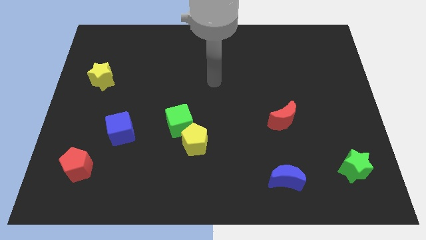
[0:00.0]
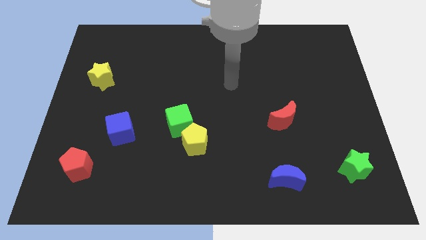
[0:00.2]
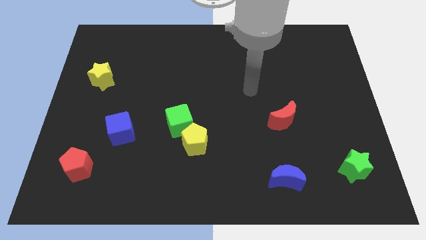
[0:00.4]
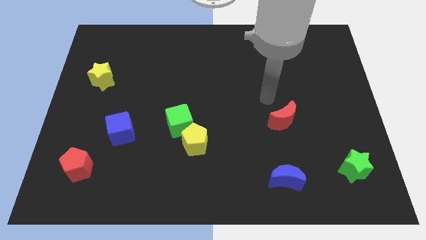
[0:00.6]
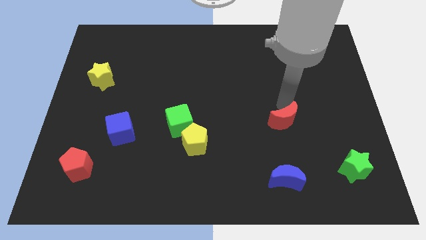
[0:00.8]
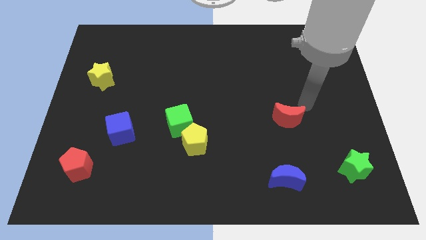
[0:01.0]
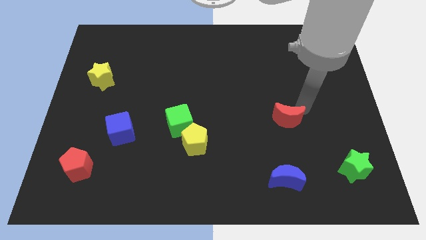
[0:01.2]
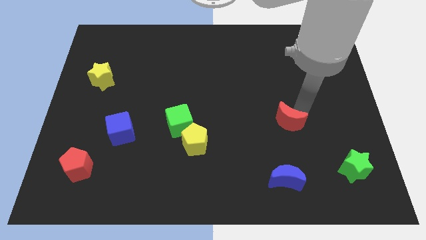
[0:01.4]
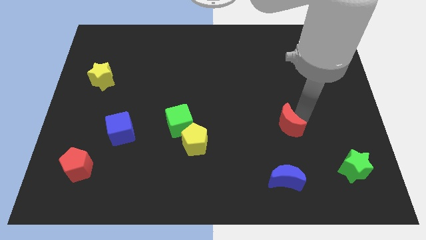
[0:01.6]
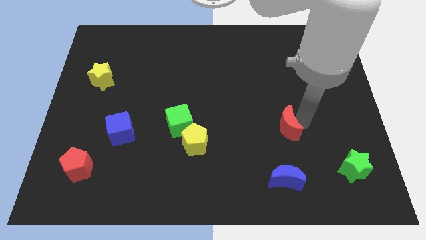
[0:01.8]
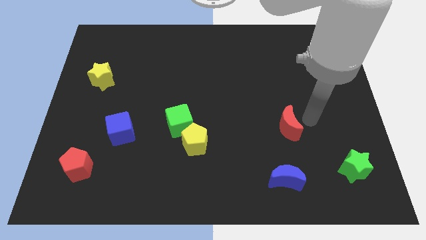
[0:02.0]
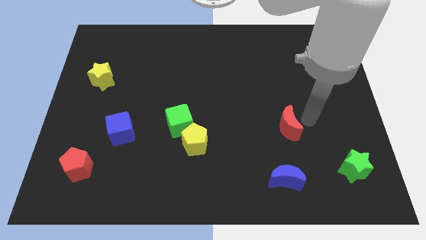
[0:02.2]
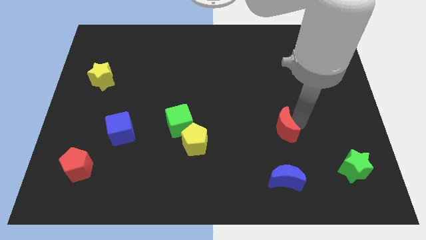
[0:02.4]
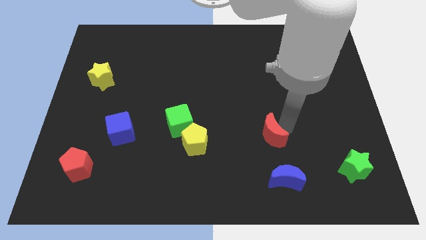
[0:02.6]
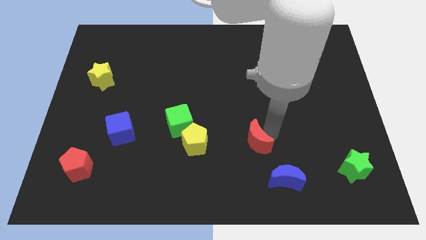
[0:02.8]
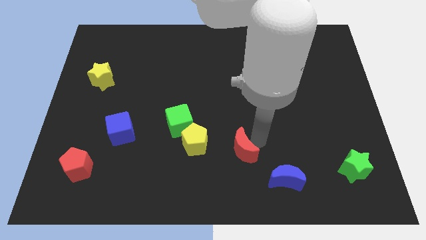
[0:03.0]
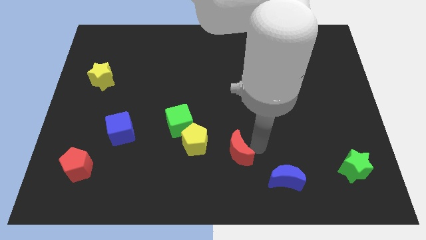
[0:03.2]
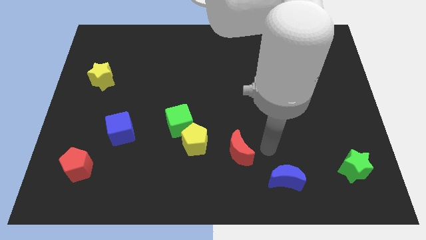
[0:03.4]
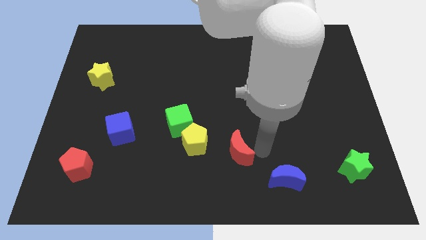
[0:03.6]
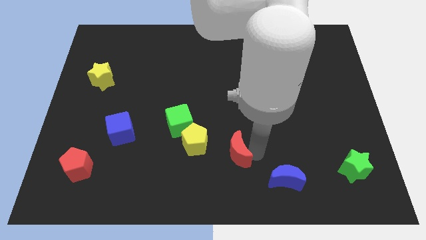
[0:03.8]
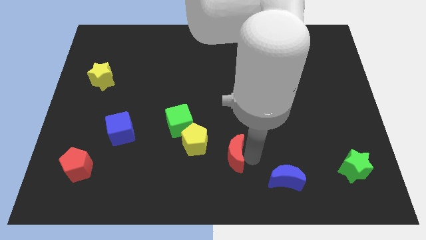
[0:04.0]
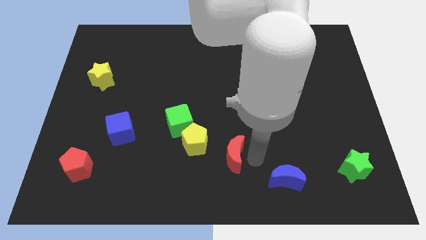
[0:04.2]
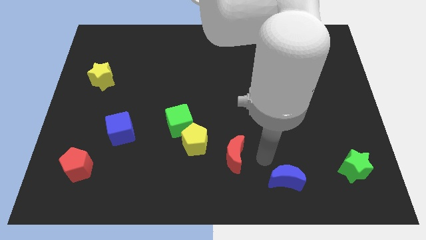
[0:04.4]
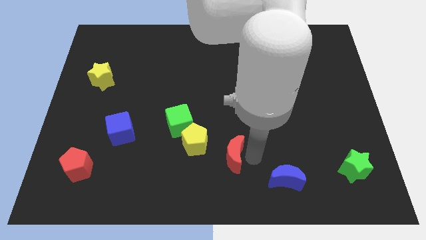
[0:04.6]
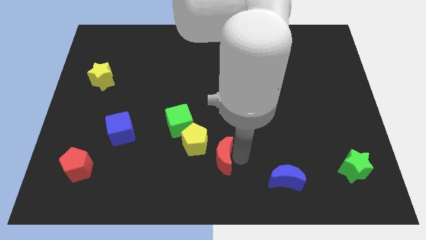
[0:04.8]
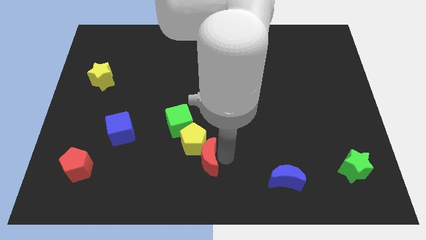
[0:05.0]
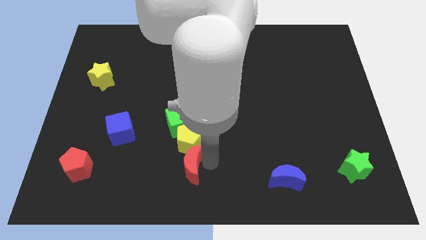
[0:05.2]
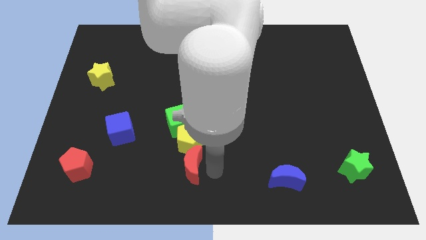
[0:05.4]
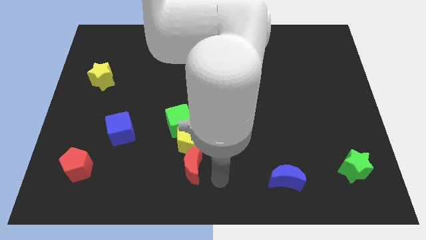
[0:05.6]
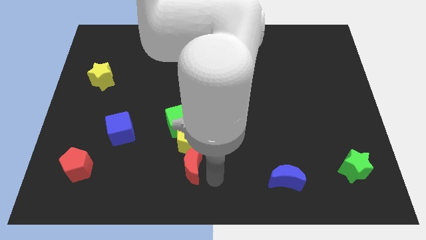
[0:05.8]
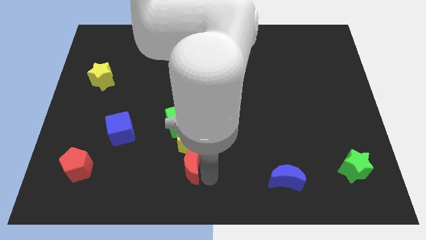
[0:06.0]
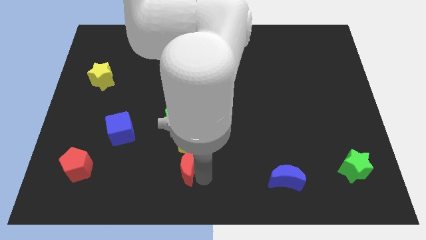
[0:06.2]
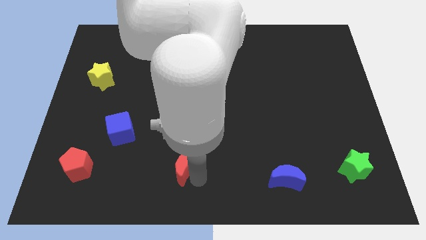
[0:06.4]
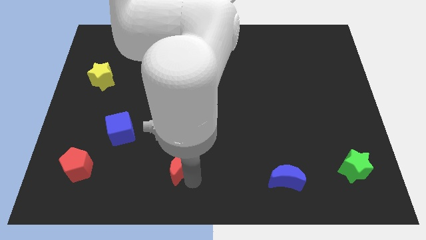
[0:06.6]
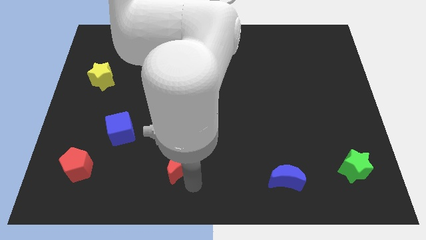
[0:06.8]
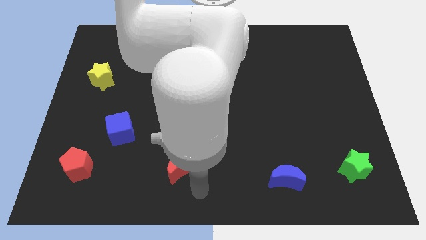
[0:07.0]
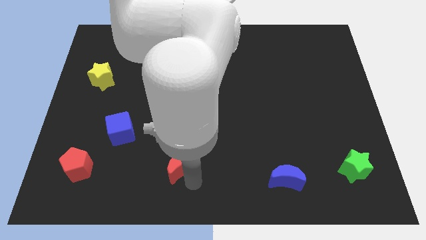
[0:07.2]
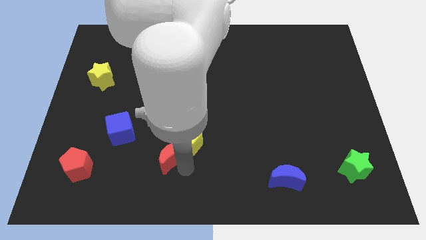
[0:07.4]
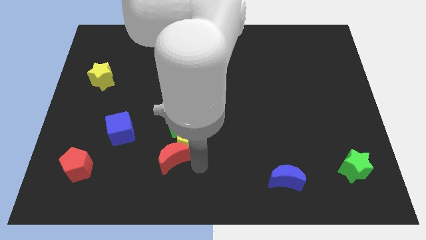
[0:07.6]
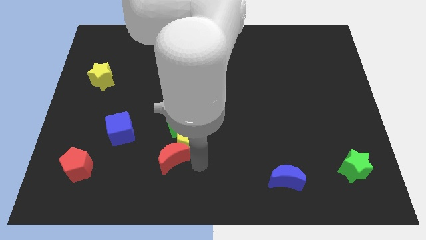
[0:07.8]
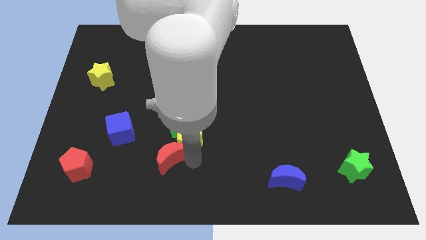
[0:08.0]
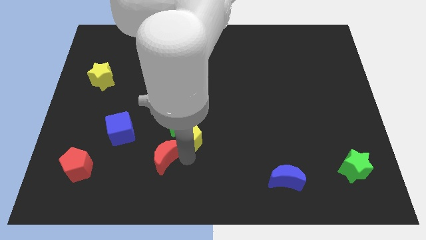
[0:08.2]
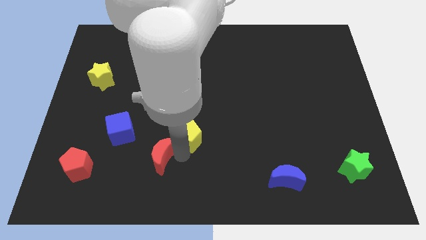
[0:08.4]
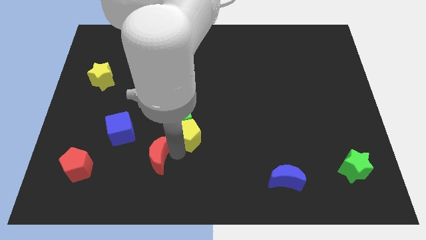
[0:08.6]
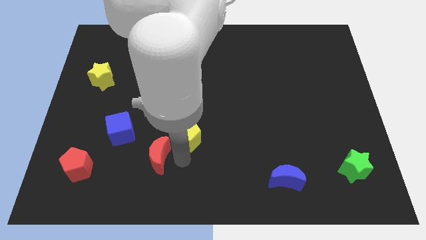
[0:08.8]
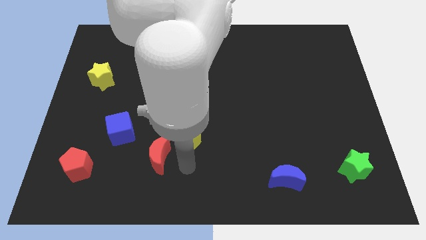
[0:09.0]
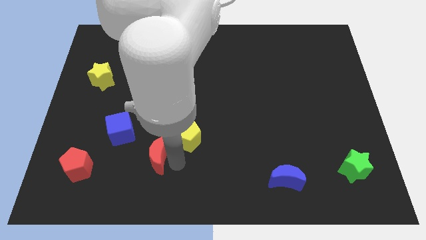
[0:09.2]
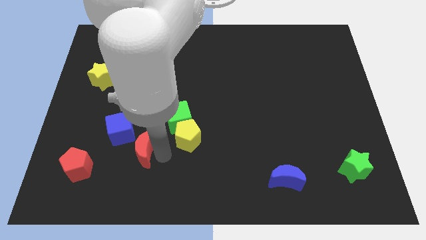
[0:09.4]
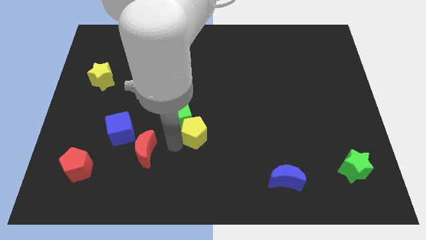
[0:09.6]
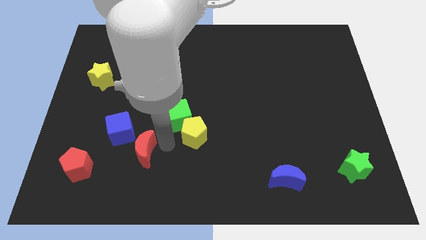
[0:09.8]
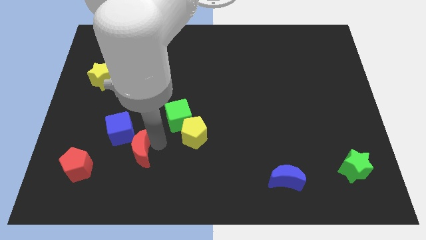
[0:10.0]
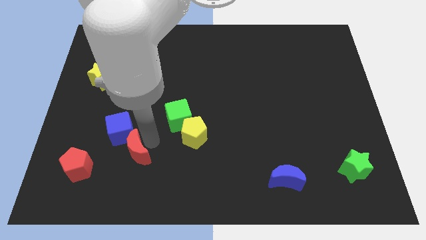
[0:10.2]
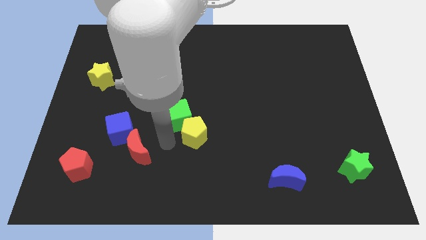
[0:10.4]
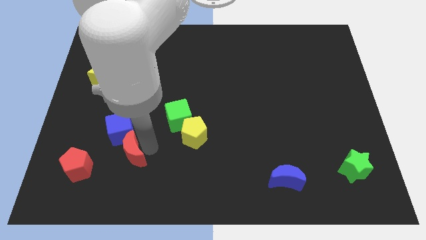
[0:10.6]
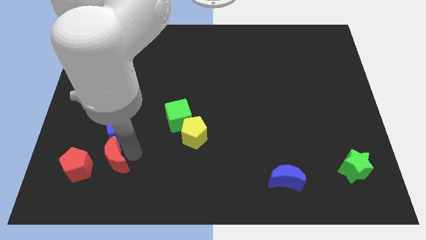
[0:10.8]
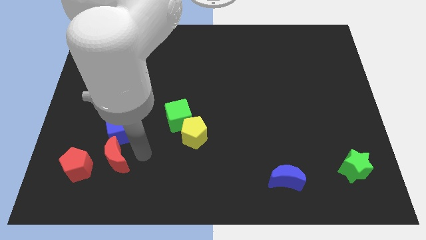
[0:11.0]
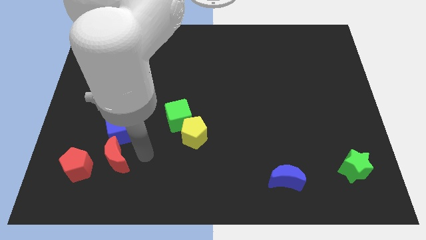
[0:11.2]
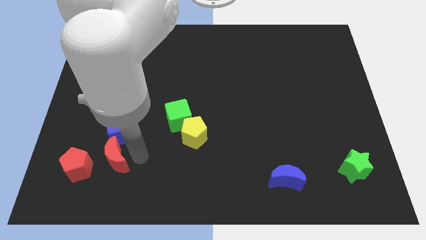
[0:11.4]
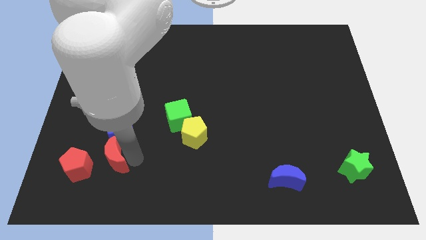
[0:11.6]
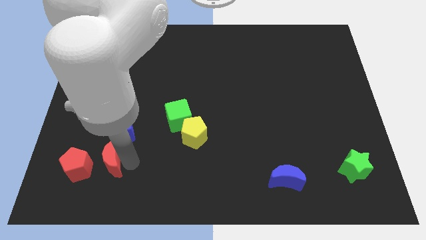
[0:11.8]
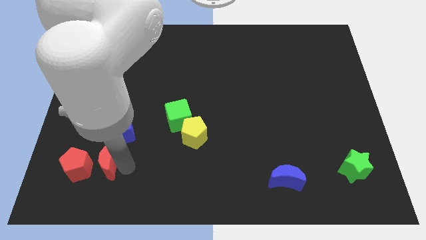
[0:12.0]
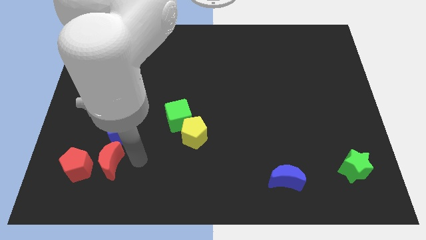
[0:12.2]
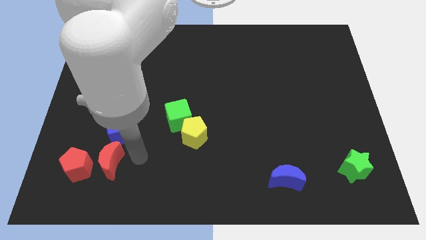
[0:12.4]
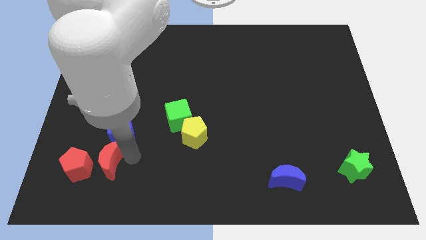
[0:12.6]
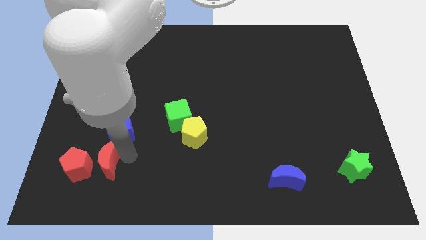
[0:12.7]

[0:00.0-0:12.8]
push the red moon towards the red pentagon
